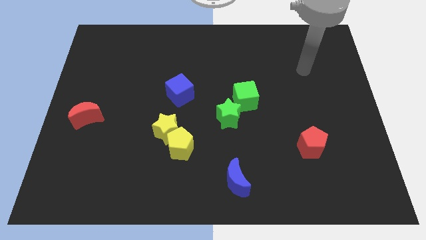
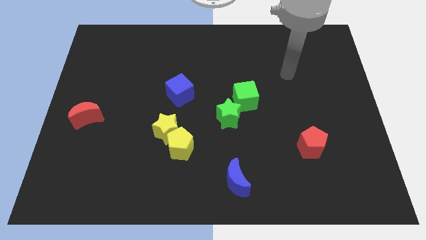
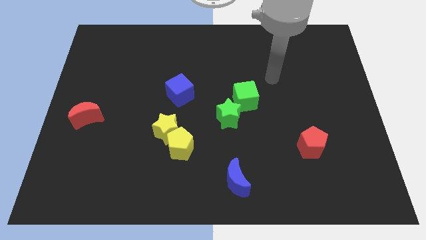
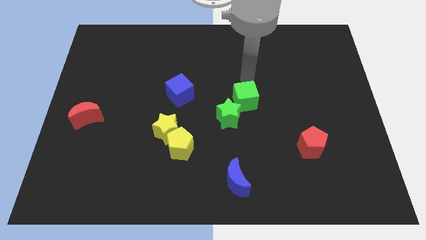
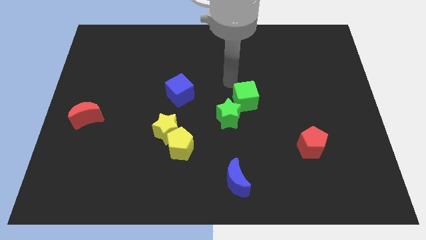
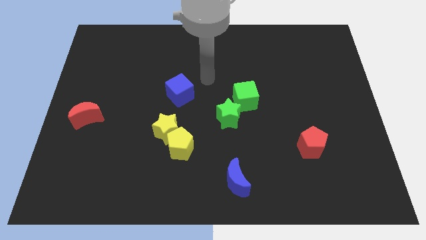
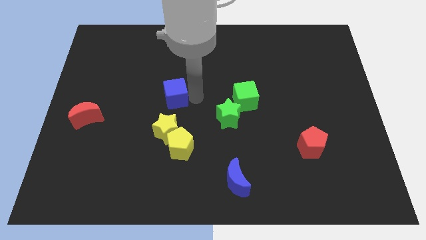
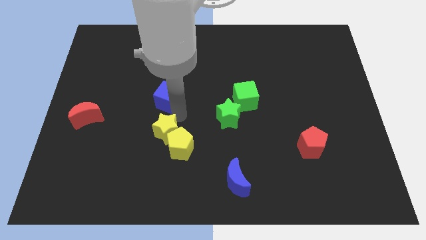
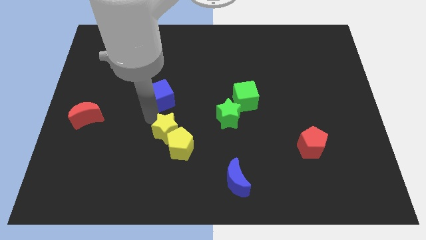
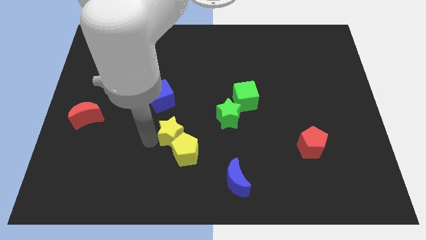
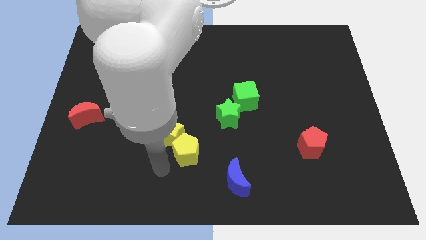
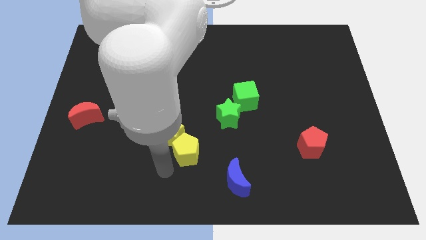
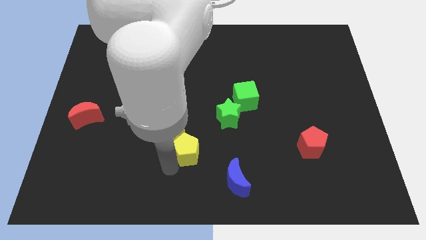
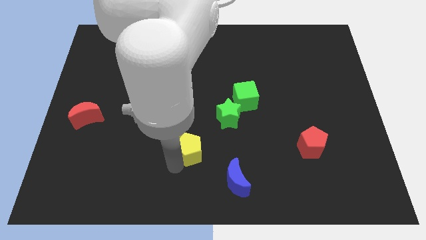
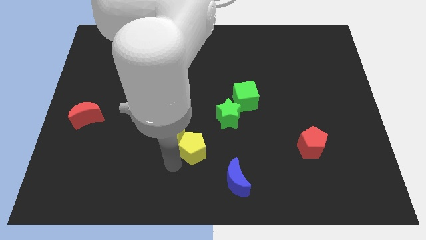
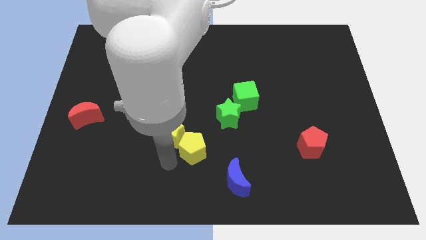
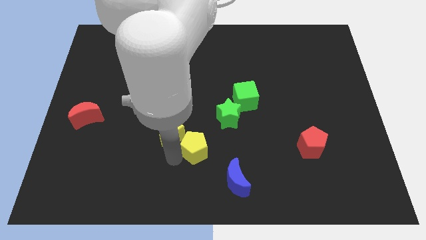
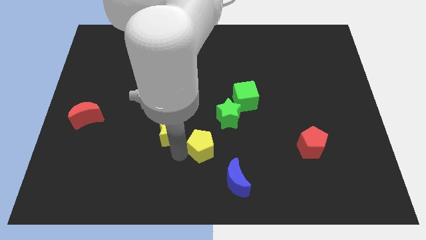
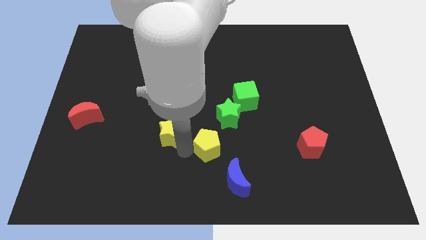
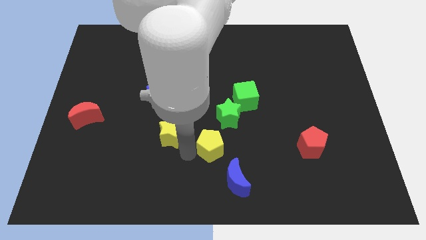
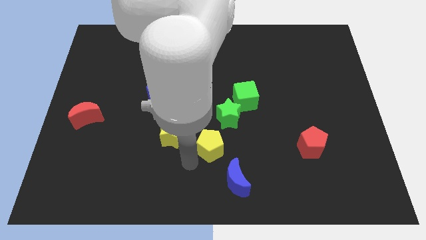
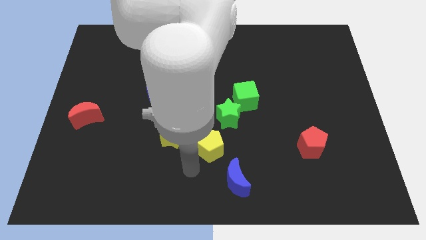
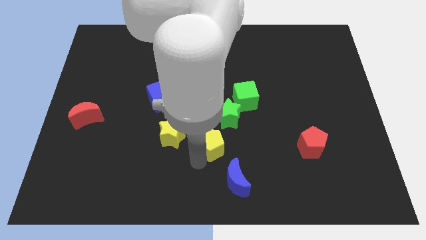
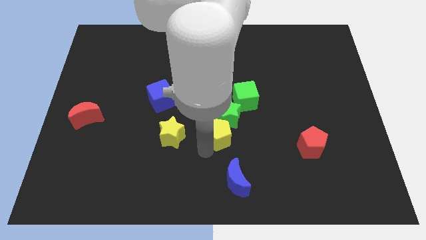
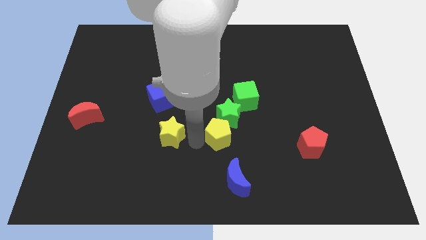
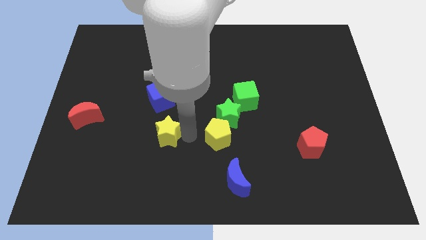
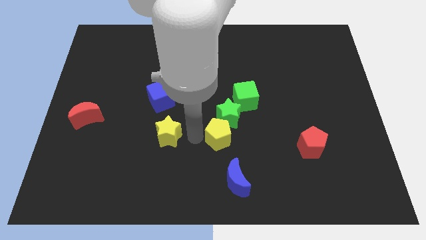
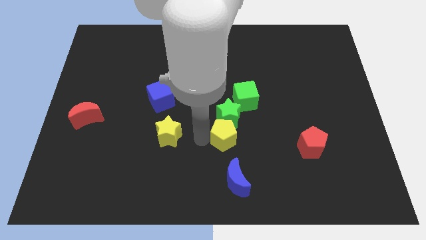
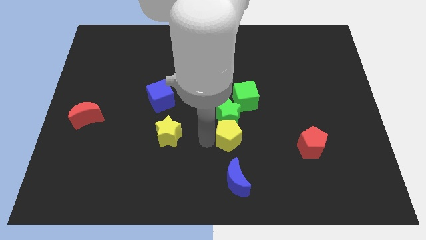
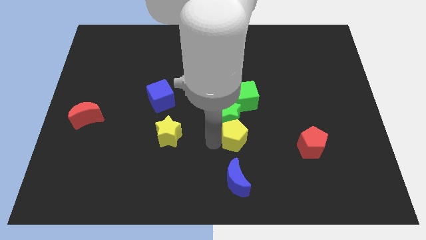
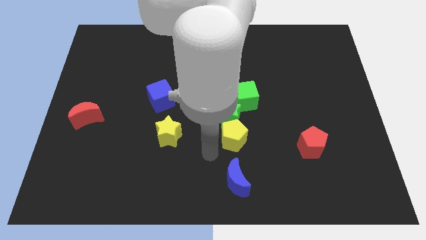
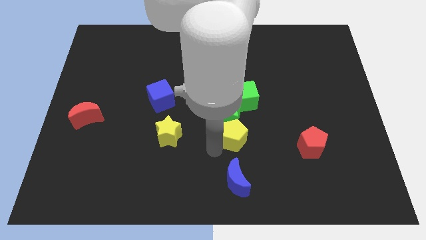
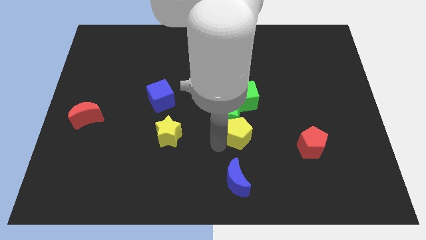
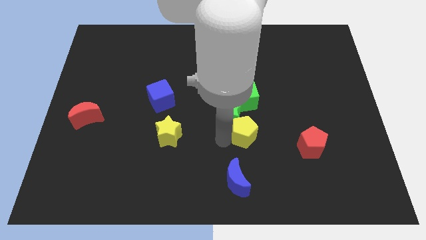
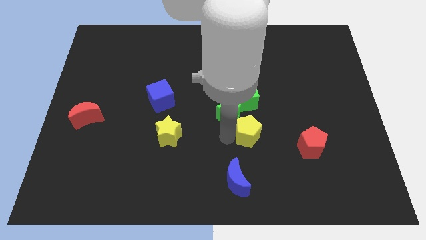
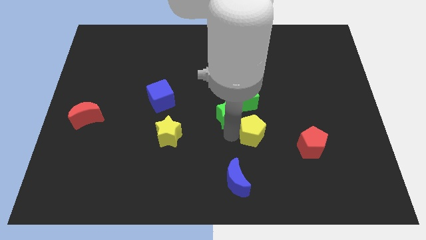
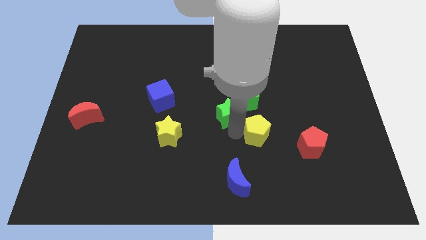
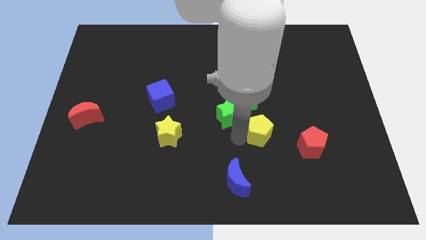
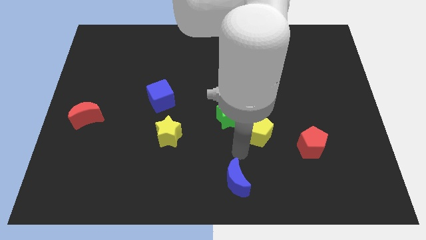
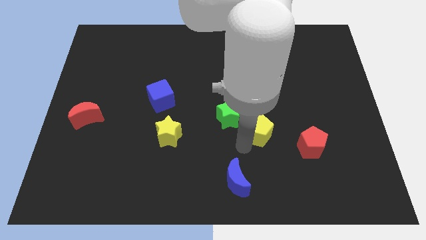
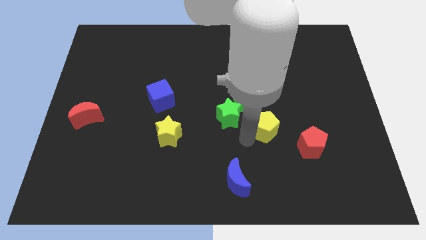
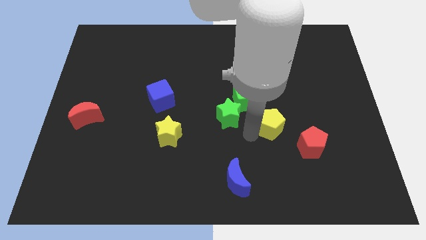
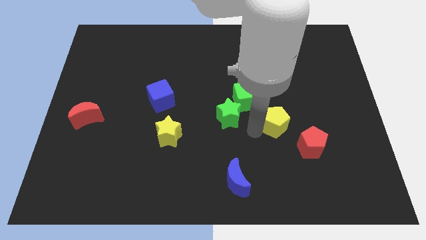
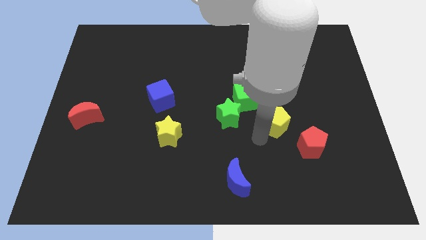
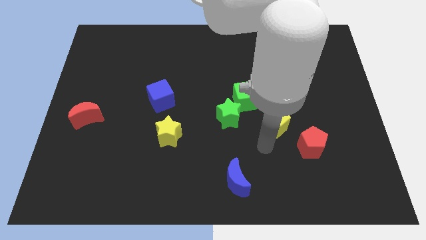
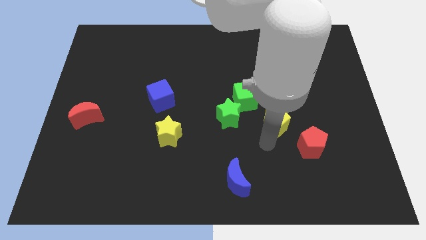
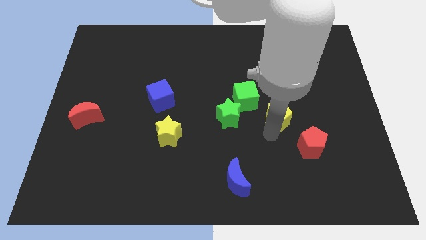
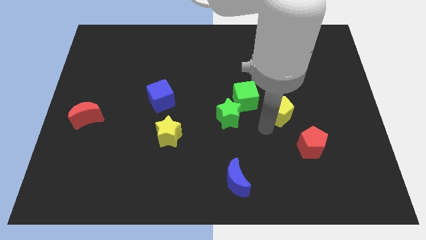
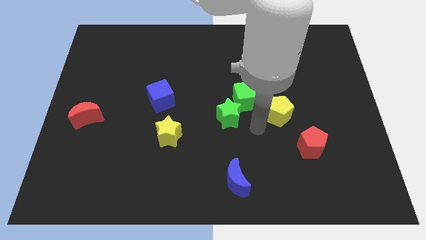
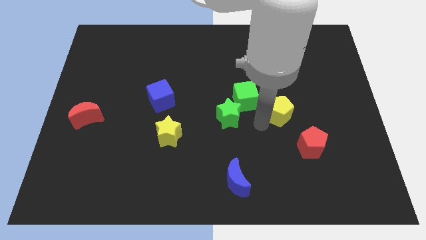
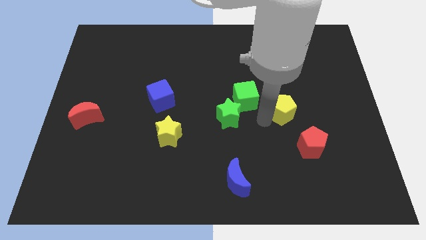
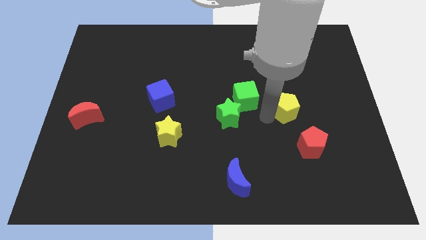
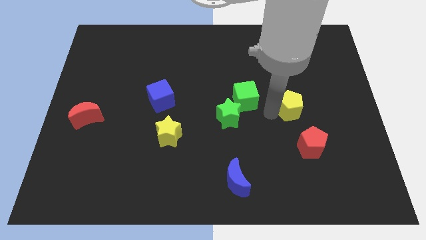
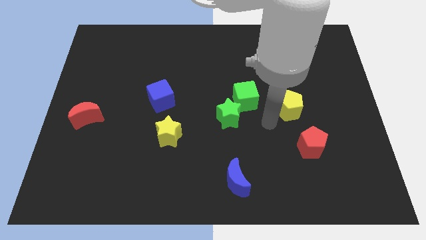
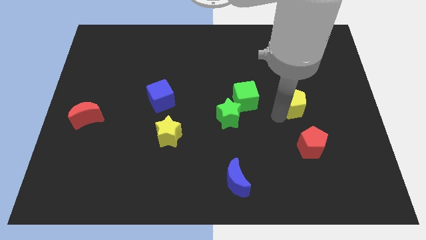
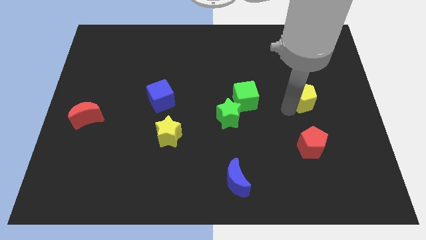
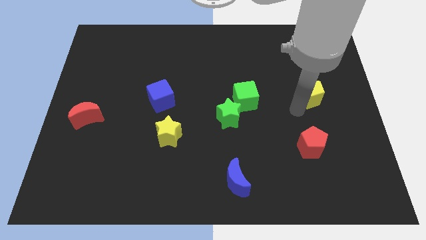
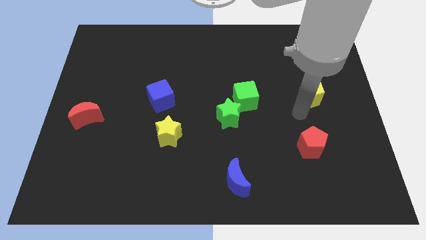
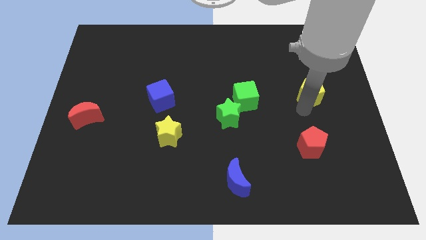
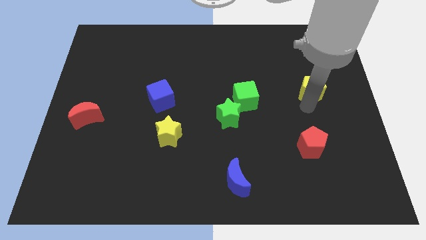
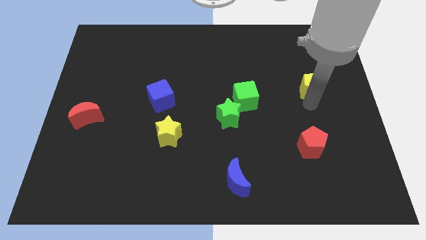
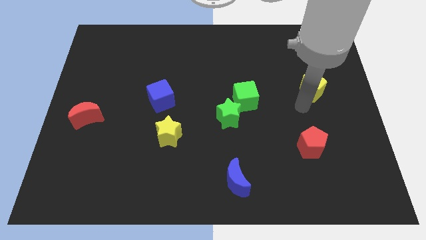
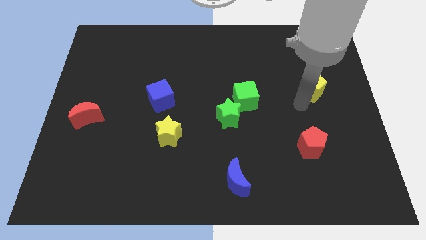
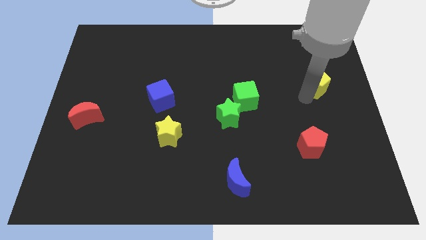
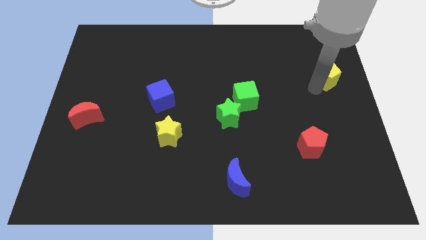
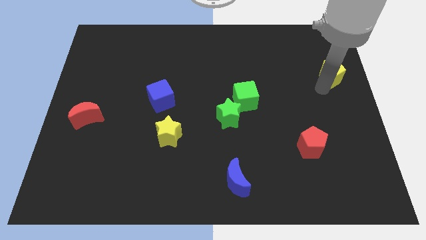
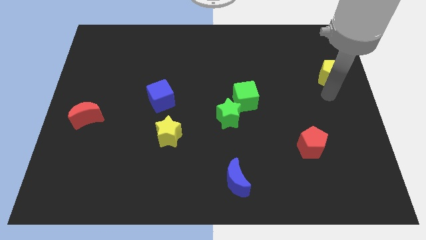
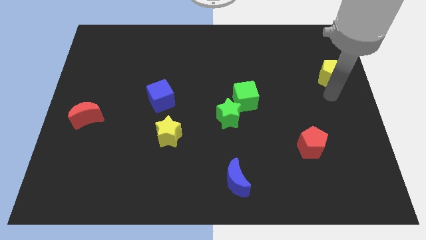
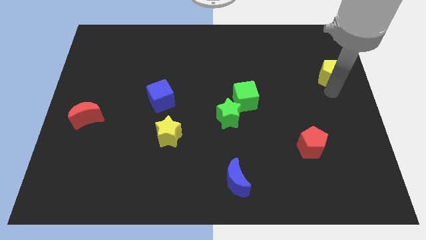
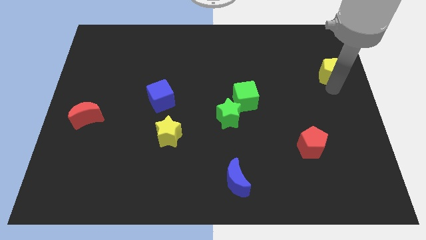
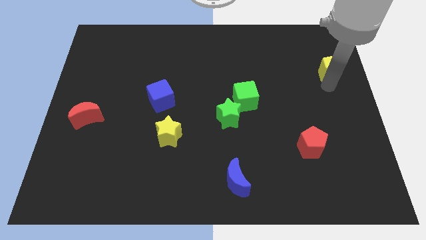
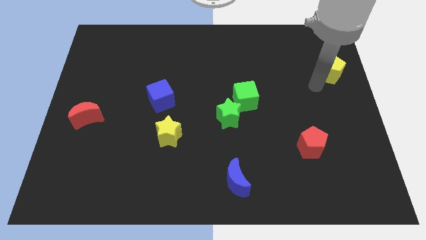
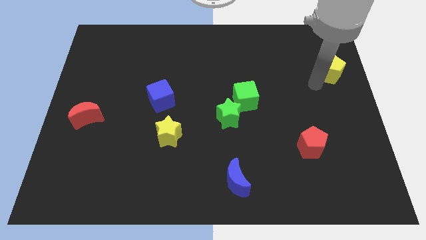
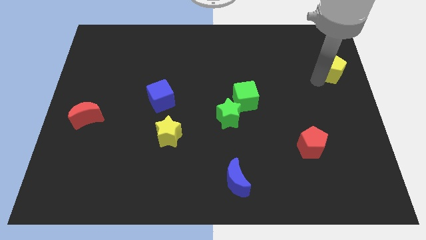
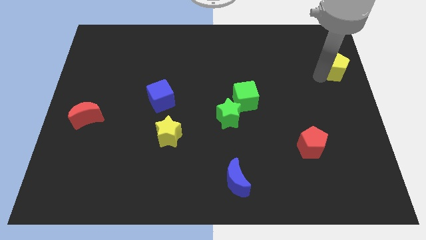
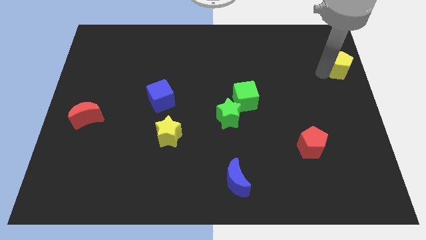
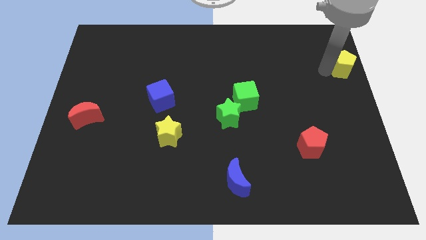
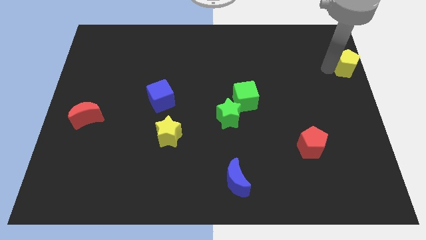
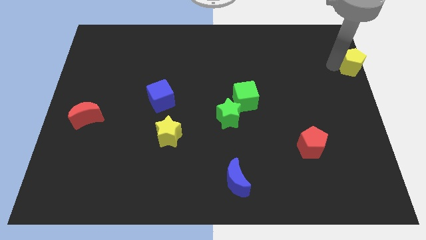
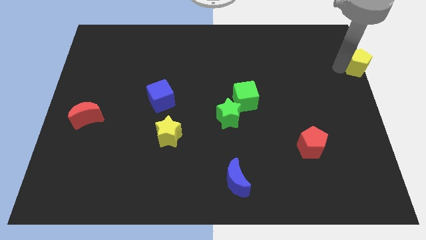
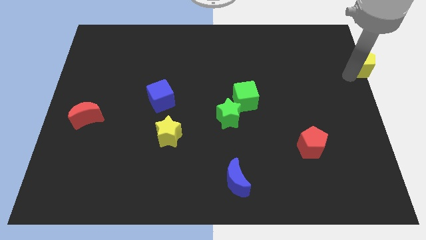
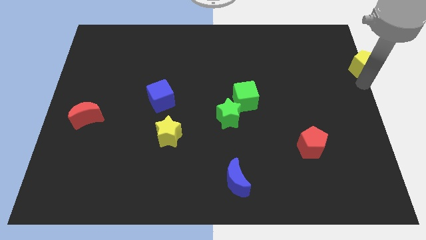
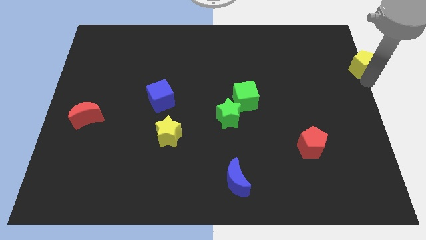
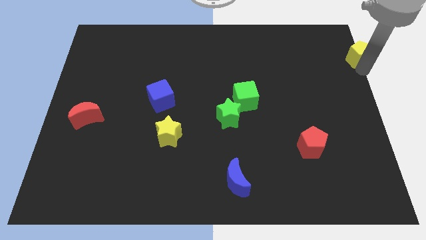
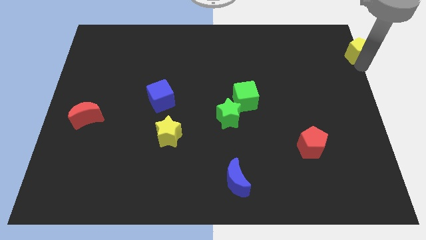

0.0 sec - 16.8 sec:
slide the yellow pentagon to the top right of the board
